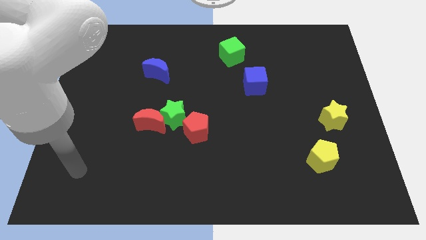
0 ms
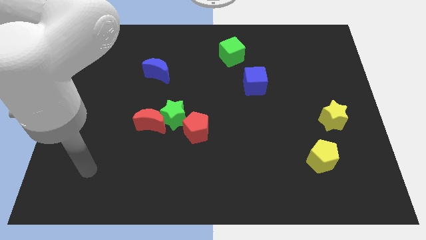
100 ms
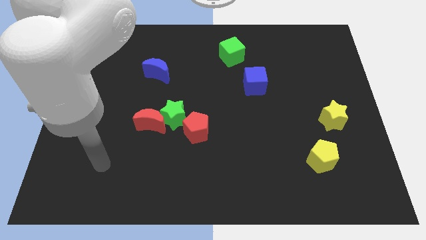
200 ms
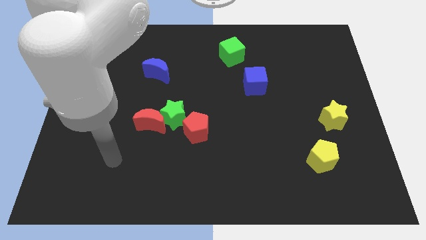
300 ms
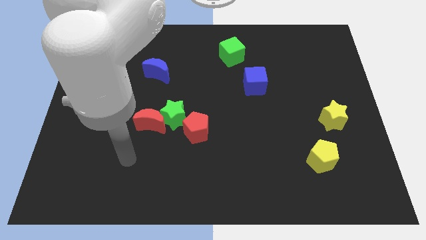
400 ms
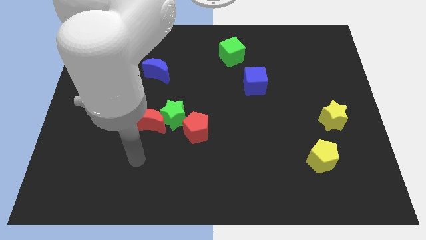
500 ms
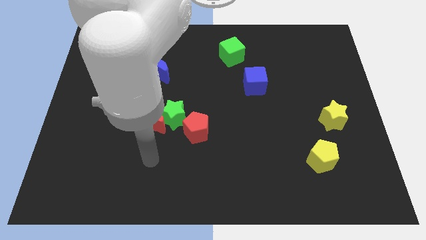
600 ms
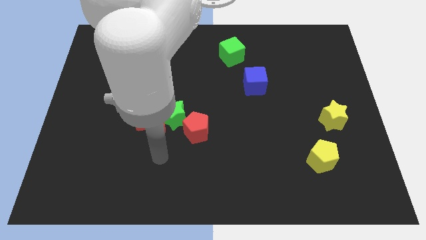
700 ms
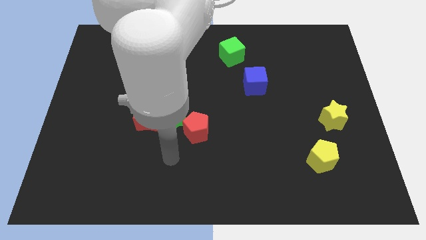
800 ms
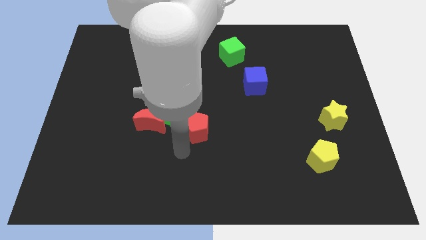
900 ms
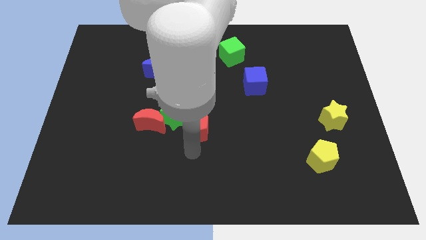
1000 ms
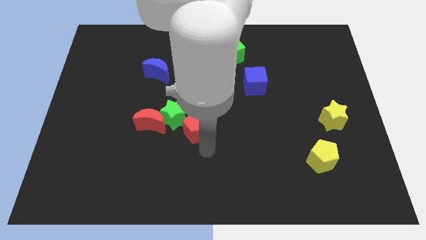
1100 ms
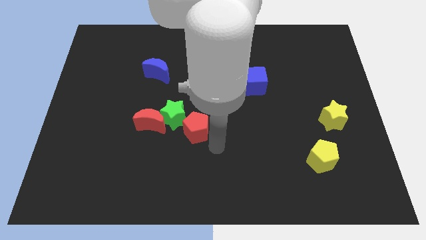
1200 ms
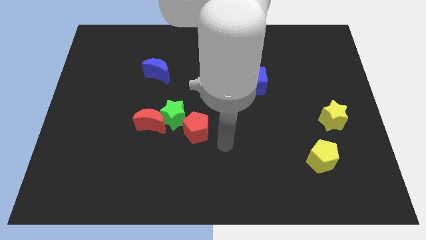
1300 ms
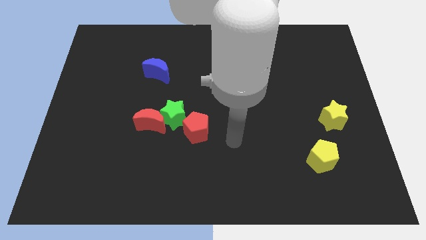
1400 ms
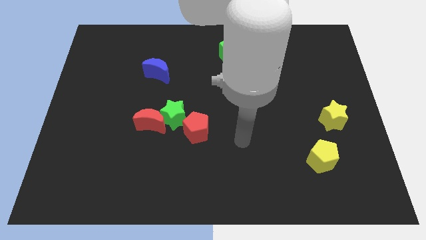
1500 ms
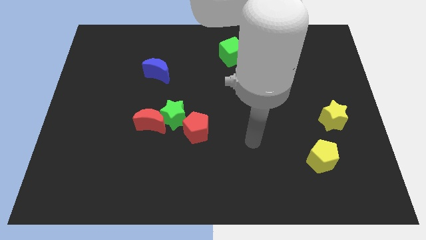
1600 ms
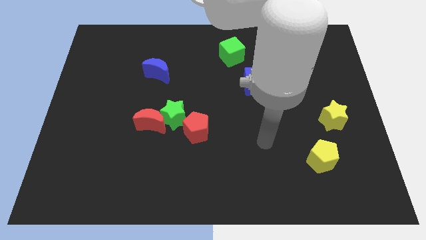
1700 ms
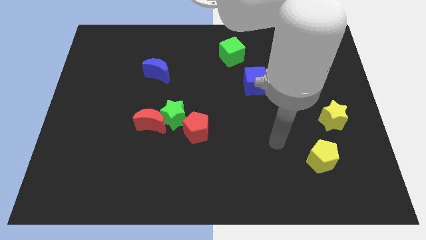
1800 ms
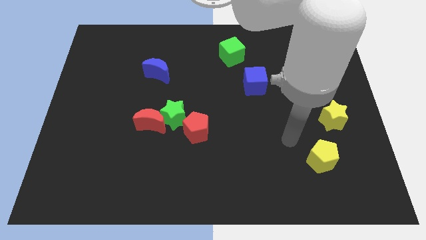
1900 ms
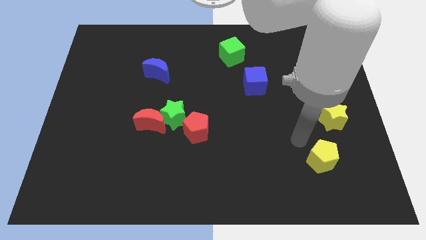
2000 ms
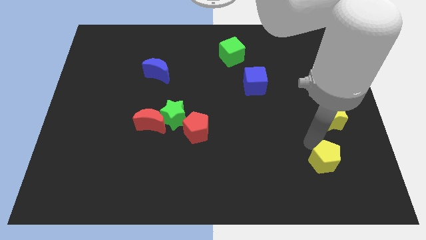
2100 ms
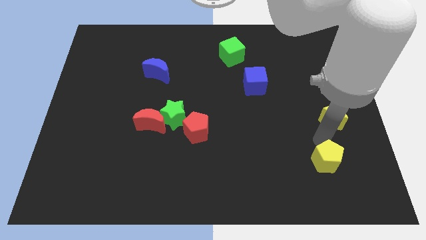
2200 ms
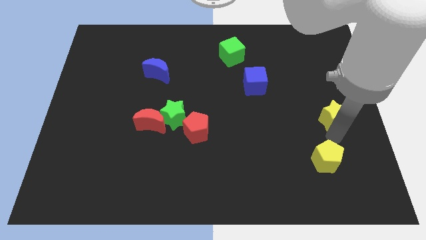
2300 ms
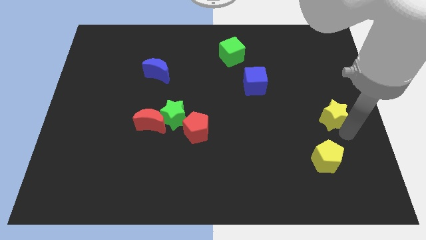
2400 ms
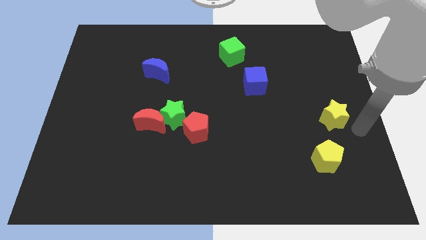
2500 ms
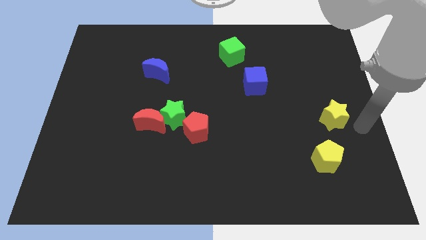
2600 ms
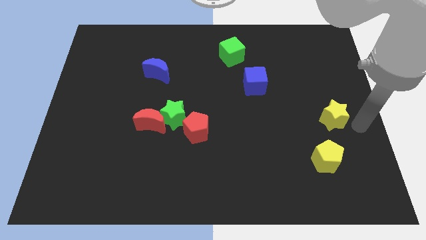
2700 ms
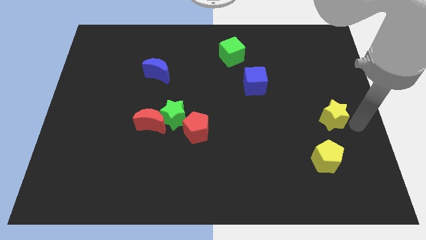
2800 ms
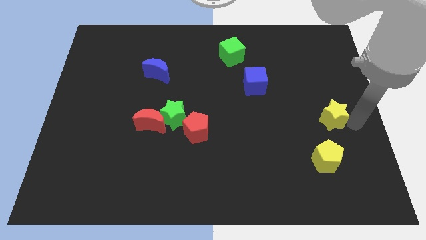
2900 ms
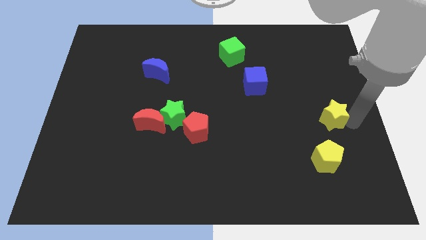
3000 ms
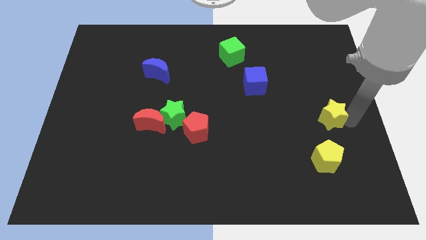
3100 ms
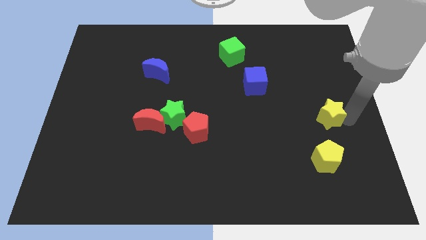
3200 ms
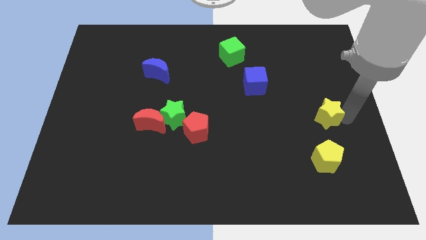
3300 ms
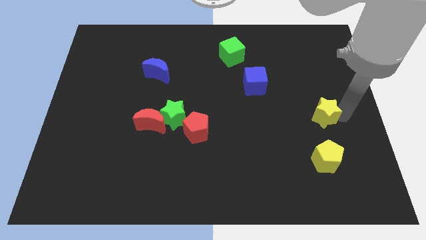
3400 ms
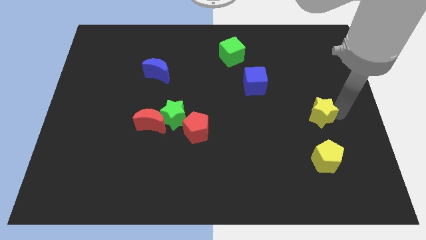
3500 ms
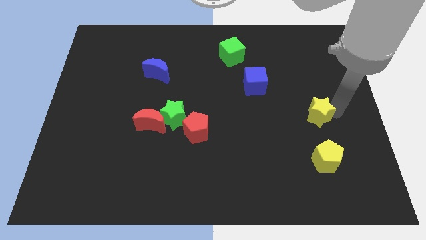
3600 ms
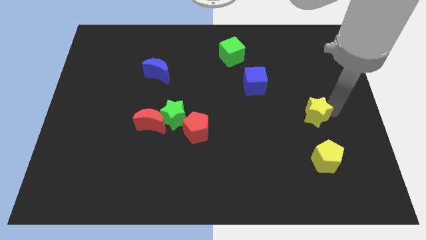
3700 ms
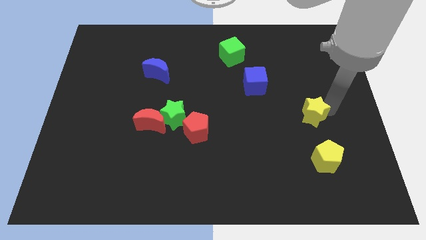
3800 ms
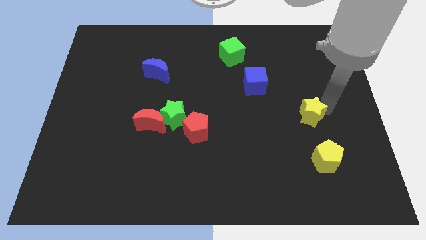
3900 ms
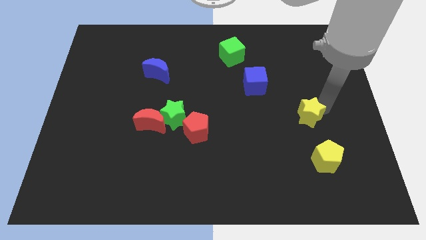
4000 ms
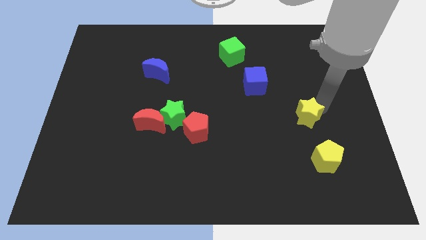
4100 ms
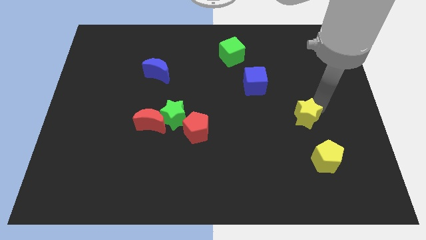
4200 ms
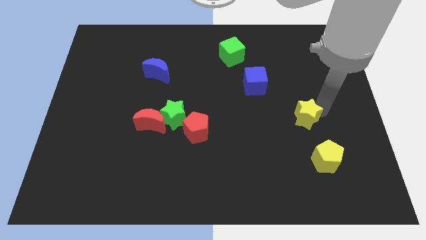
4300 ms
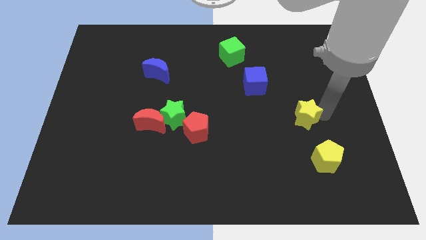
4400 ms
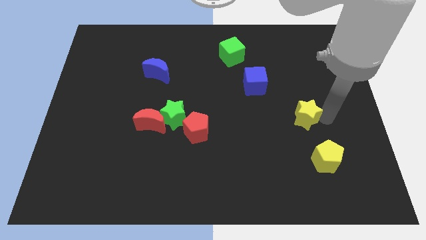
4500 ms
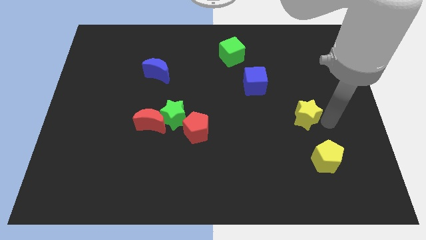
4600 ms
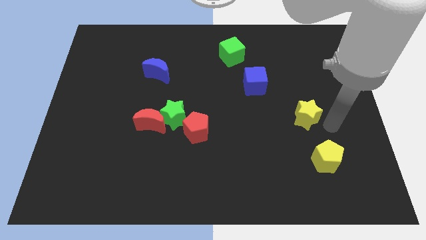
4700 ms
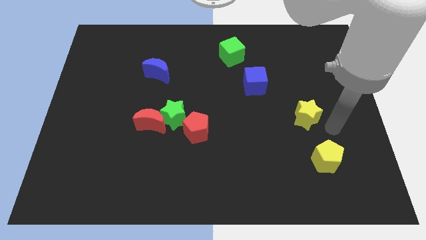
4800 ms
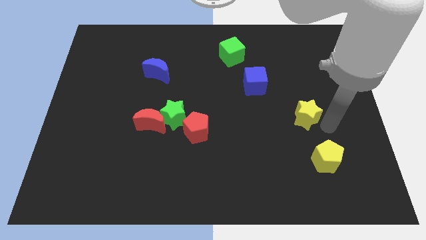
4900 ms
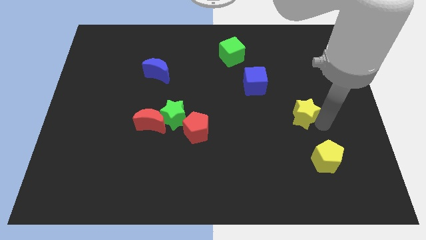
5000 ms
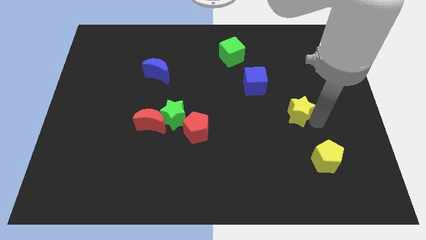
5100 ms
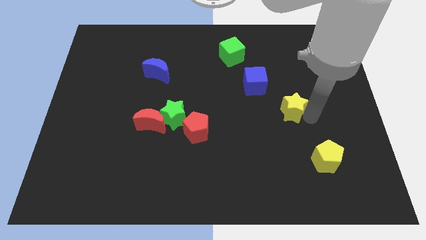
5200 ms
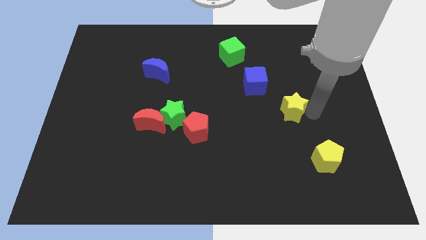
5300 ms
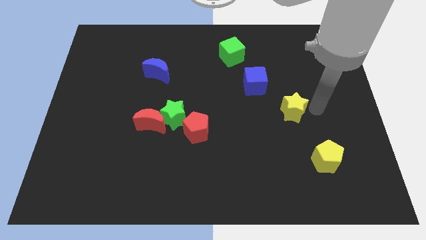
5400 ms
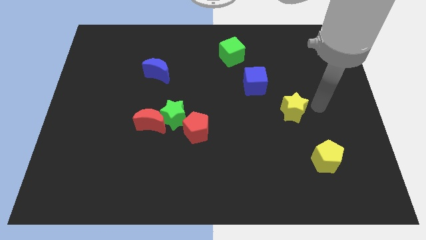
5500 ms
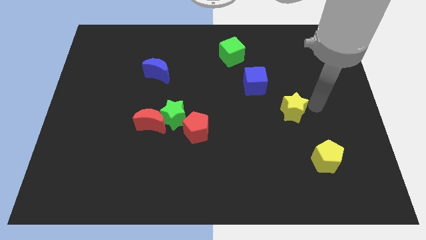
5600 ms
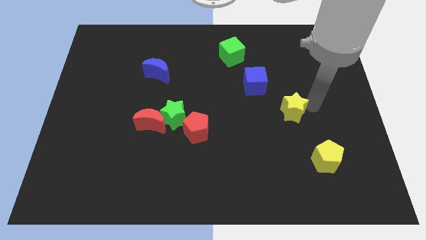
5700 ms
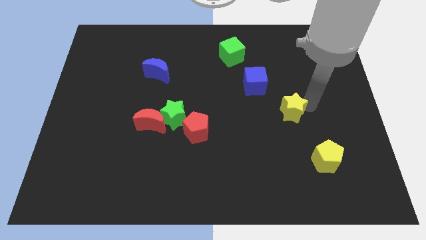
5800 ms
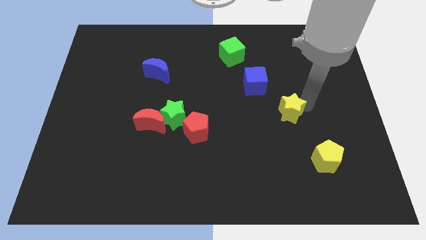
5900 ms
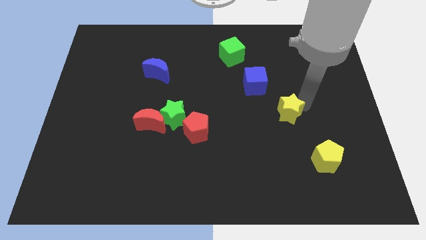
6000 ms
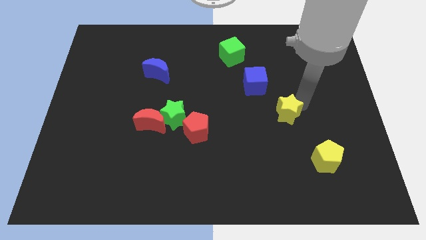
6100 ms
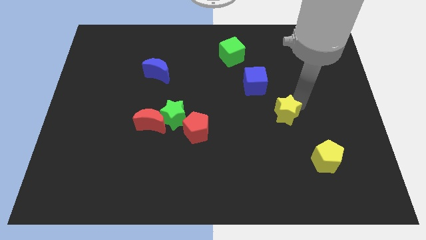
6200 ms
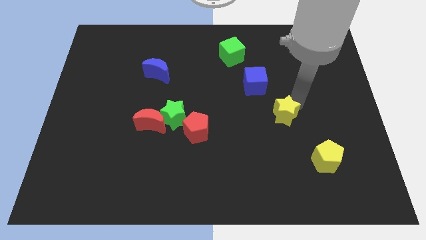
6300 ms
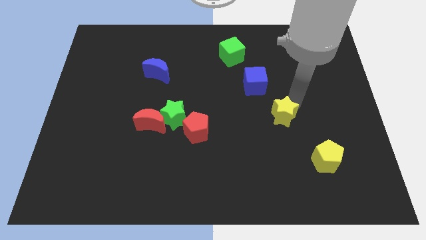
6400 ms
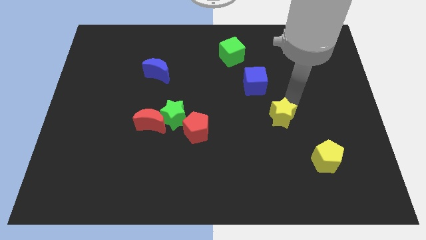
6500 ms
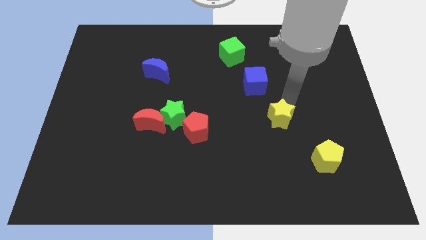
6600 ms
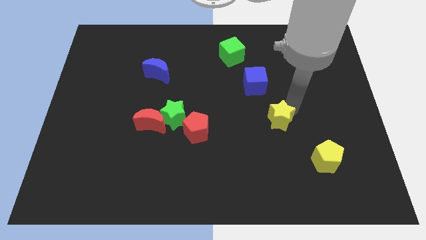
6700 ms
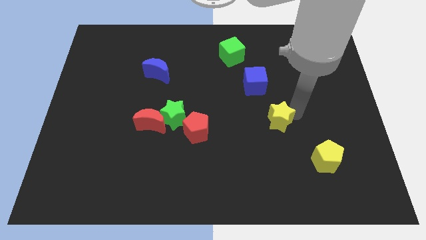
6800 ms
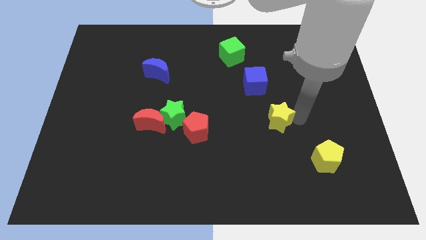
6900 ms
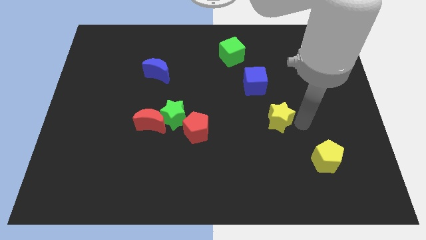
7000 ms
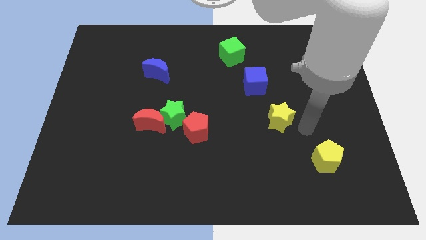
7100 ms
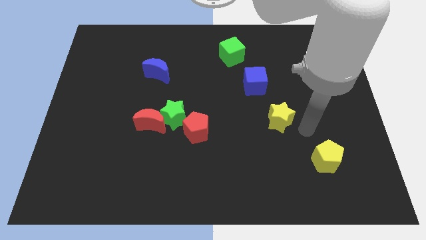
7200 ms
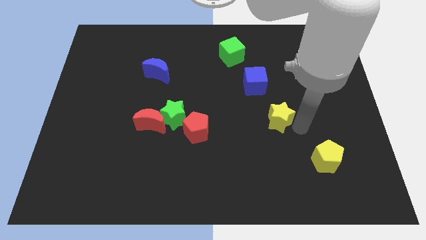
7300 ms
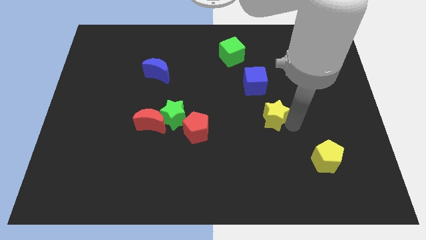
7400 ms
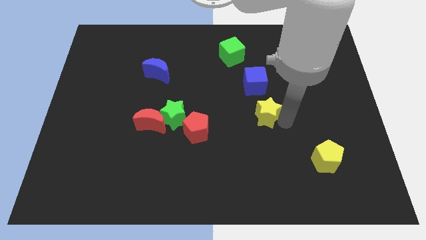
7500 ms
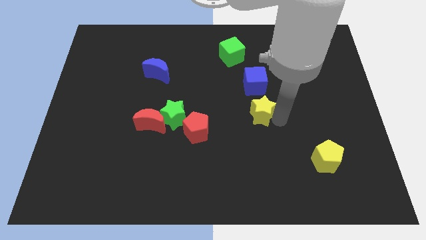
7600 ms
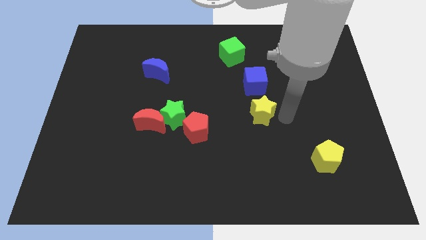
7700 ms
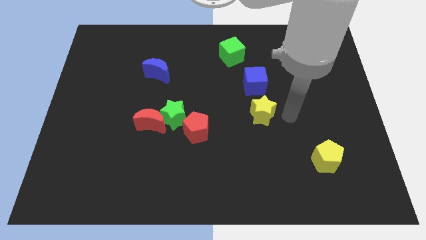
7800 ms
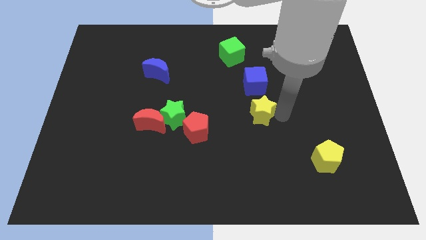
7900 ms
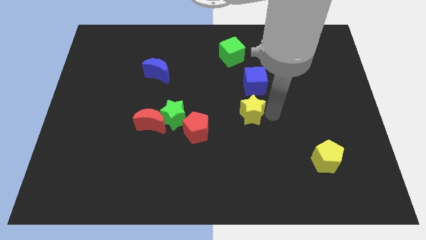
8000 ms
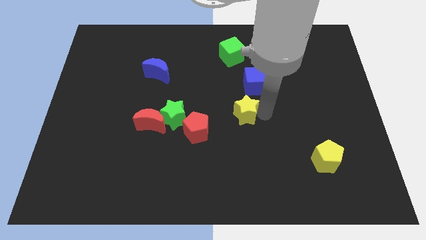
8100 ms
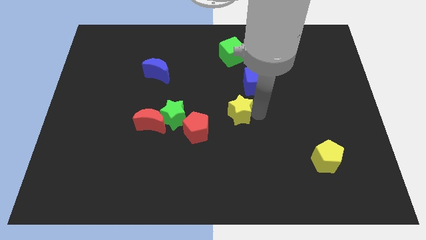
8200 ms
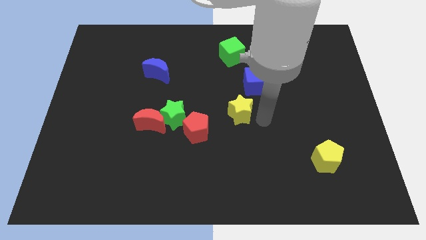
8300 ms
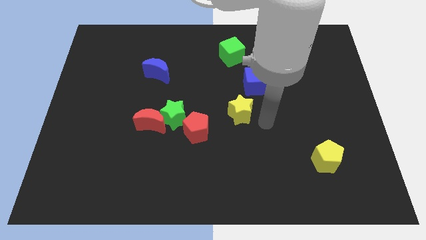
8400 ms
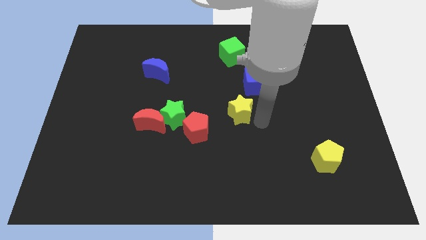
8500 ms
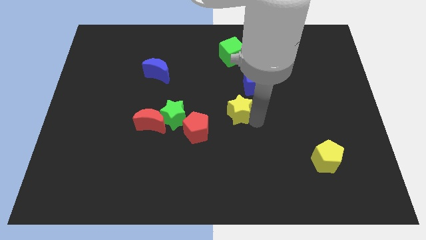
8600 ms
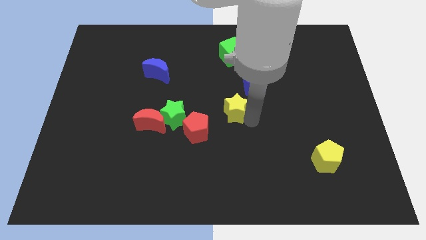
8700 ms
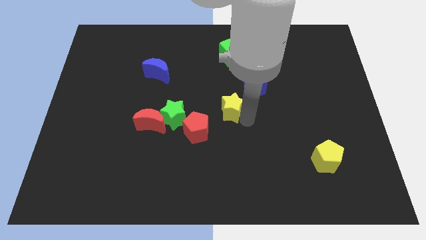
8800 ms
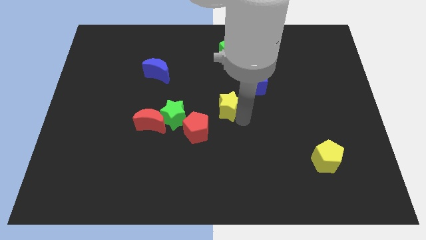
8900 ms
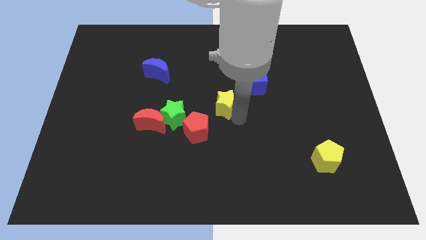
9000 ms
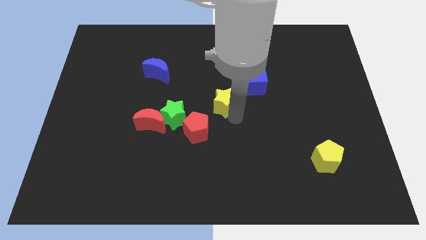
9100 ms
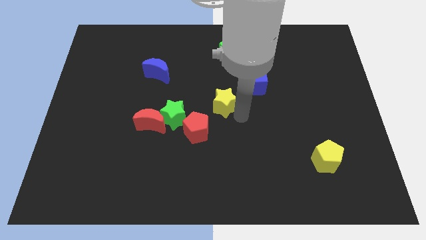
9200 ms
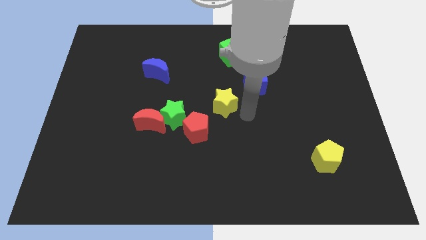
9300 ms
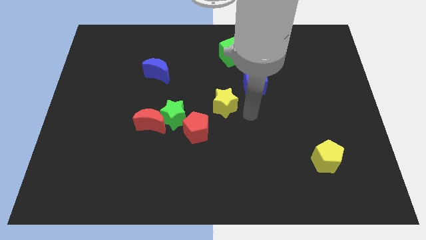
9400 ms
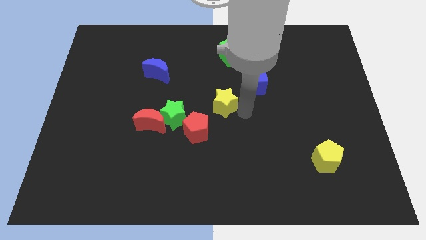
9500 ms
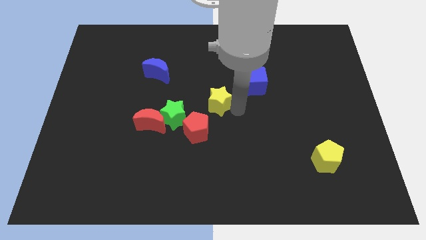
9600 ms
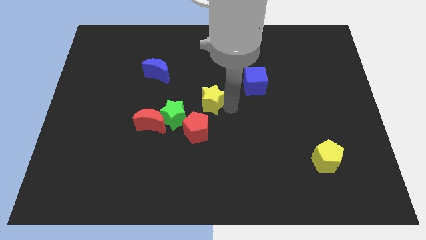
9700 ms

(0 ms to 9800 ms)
put the yellow star to the top of the red pentagon
